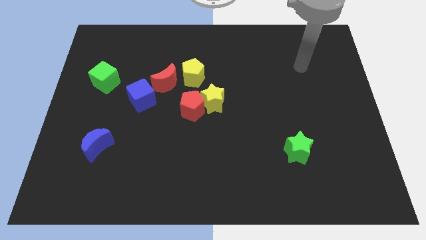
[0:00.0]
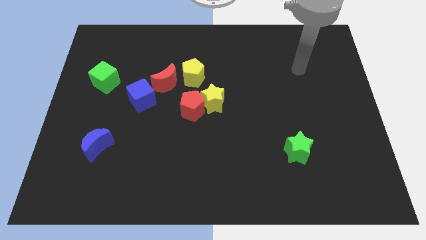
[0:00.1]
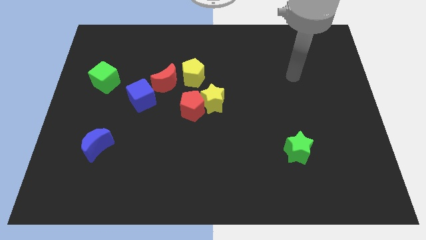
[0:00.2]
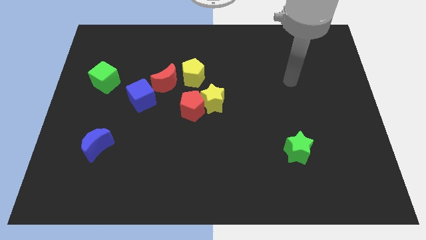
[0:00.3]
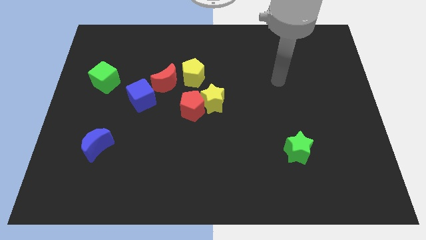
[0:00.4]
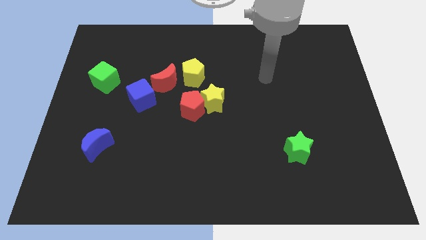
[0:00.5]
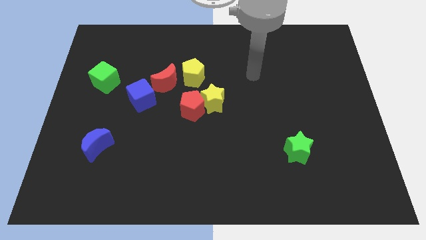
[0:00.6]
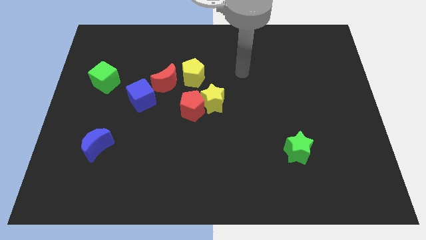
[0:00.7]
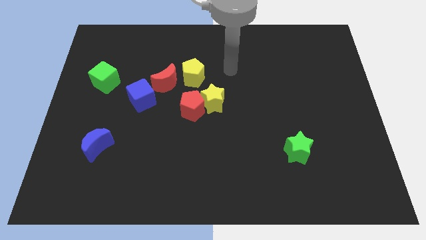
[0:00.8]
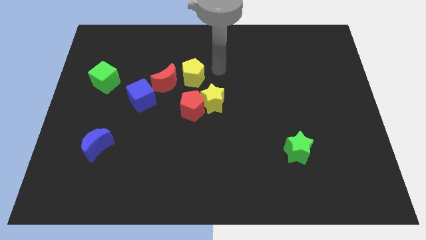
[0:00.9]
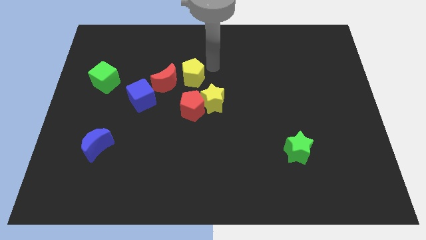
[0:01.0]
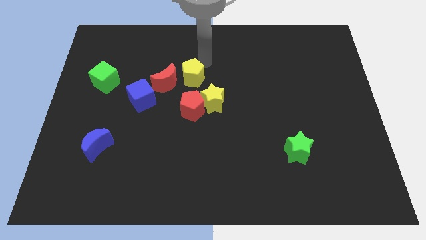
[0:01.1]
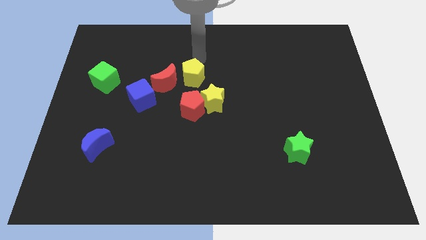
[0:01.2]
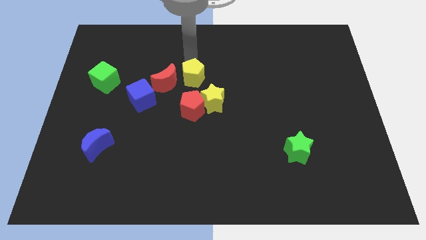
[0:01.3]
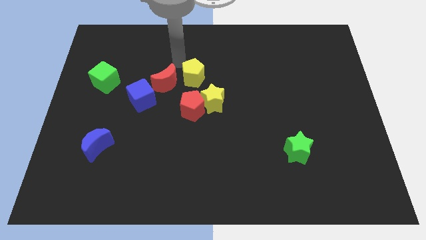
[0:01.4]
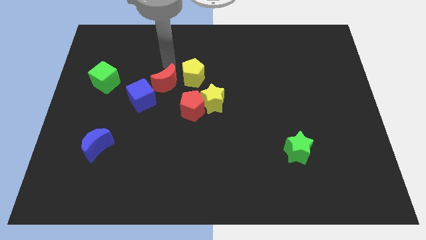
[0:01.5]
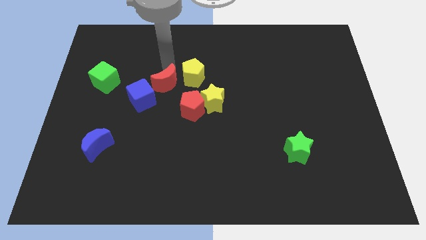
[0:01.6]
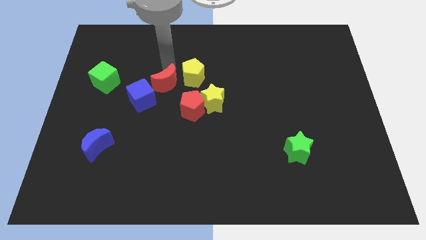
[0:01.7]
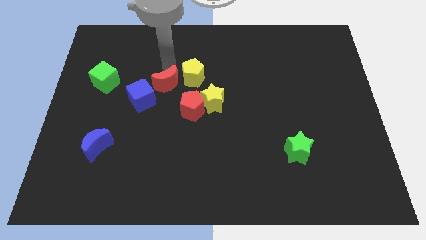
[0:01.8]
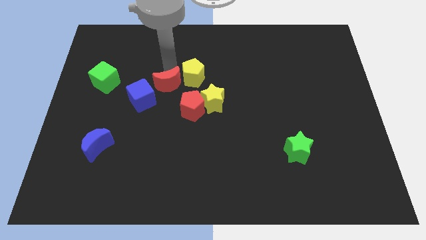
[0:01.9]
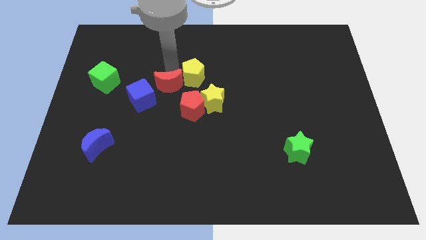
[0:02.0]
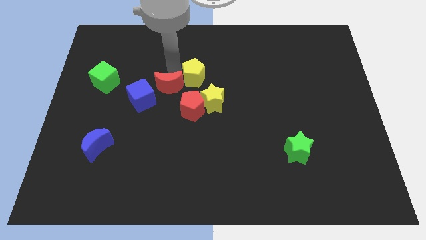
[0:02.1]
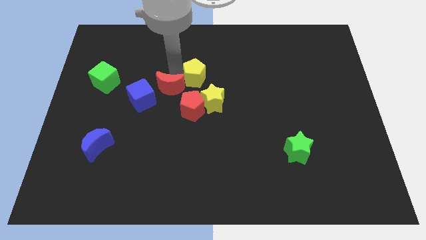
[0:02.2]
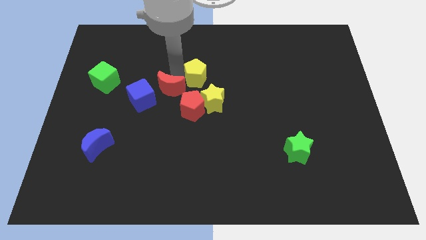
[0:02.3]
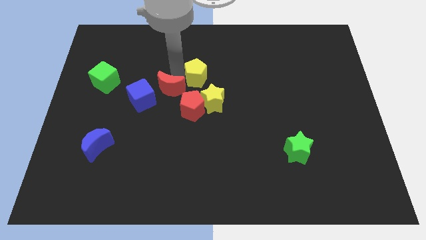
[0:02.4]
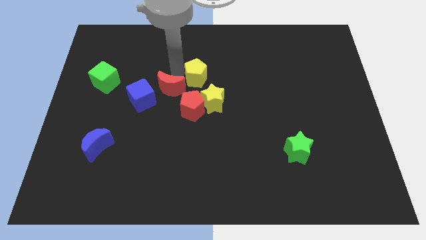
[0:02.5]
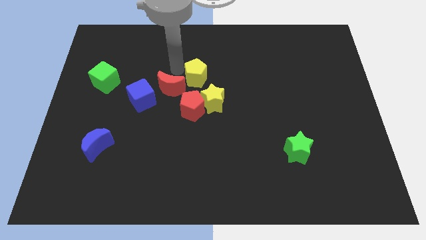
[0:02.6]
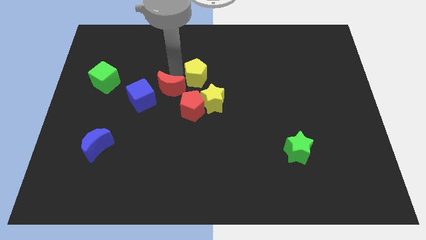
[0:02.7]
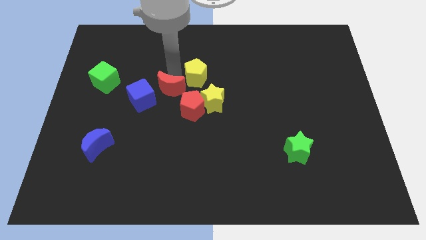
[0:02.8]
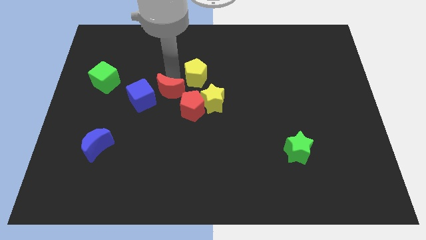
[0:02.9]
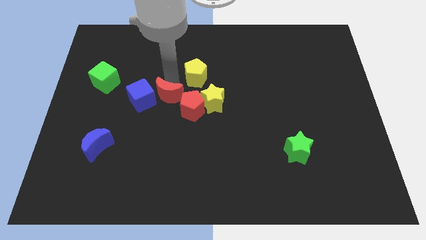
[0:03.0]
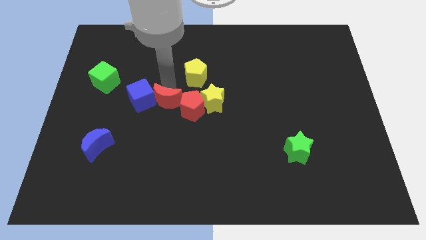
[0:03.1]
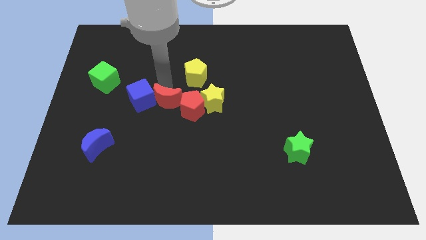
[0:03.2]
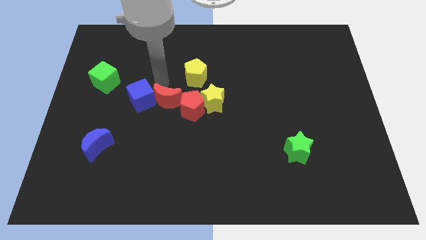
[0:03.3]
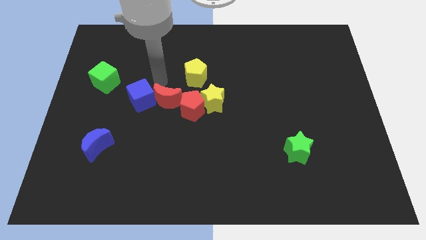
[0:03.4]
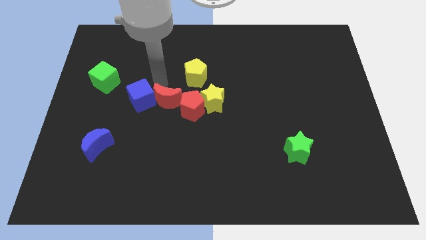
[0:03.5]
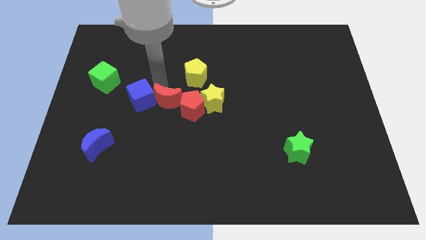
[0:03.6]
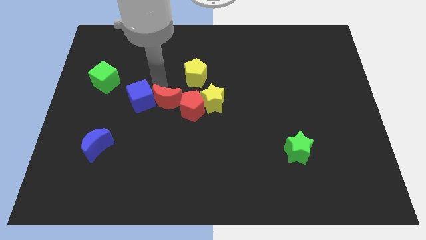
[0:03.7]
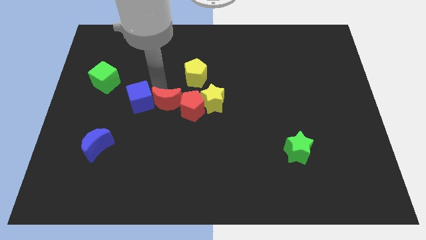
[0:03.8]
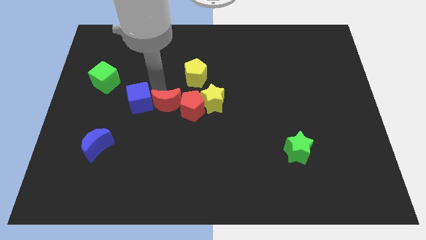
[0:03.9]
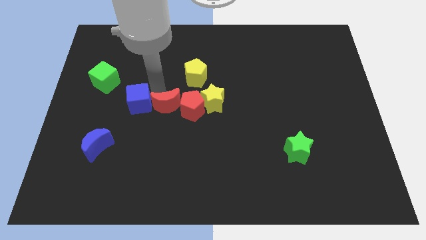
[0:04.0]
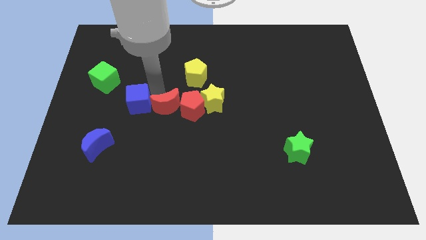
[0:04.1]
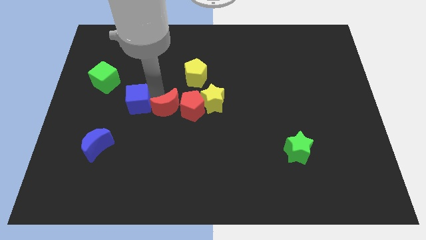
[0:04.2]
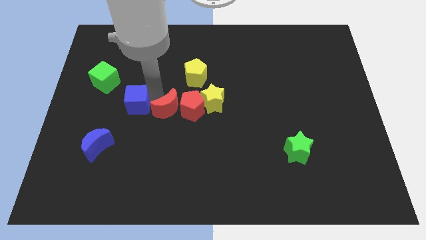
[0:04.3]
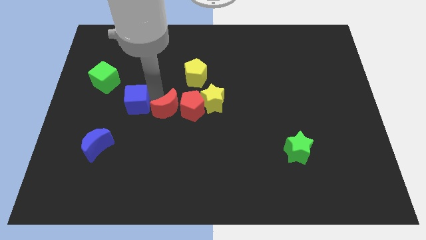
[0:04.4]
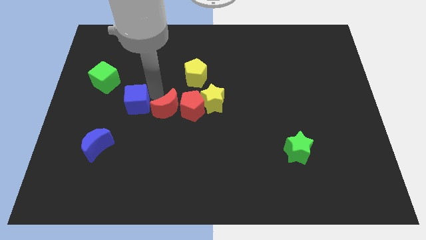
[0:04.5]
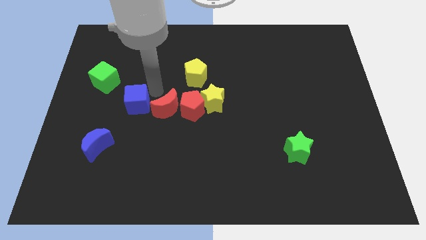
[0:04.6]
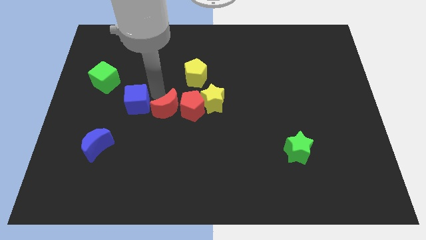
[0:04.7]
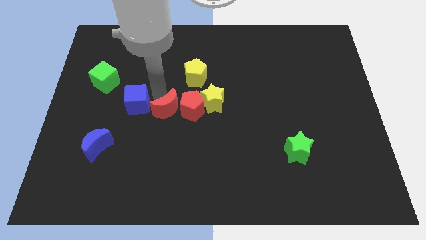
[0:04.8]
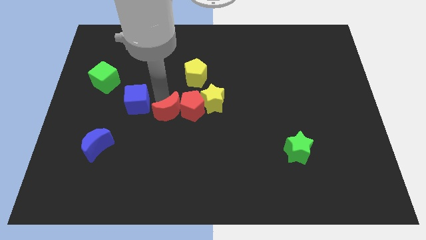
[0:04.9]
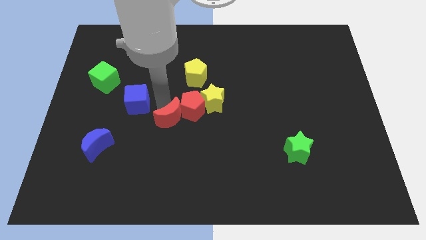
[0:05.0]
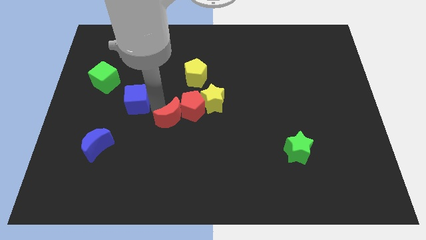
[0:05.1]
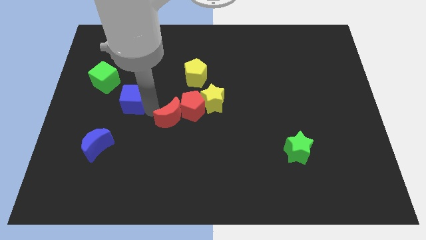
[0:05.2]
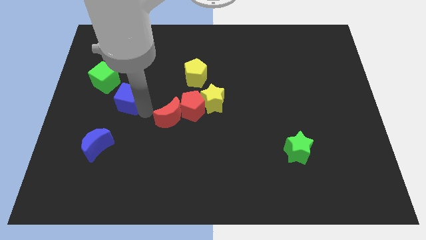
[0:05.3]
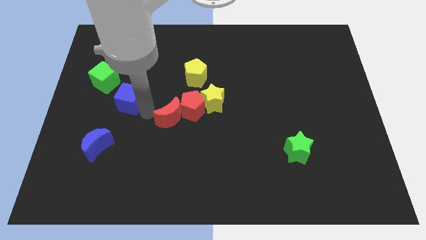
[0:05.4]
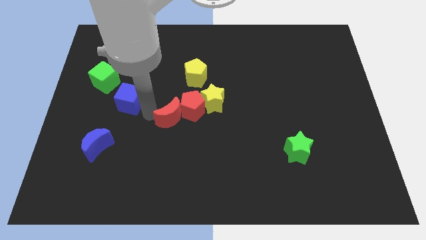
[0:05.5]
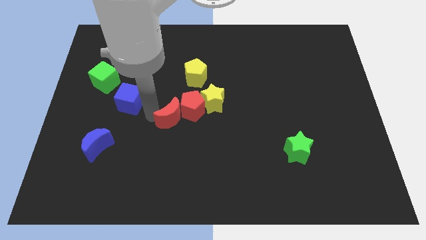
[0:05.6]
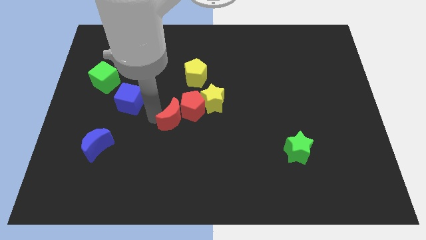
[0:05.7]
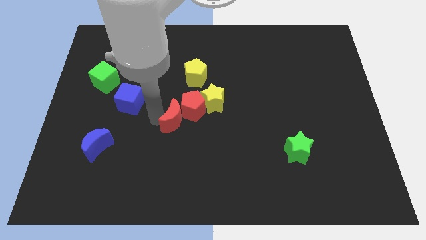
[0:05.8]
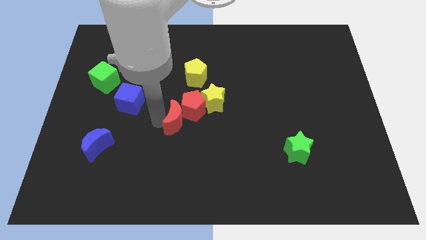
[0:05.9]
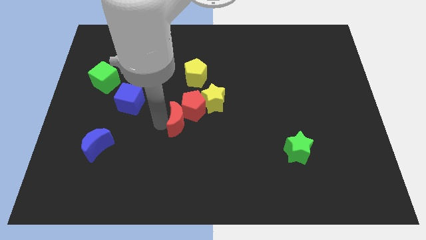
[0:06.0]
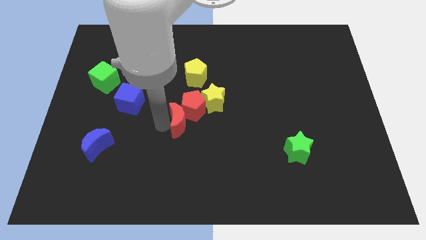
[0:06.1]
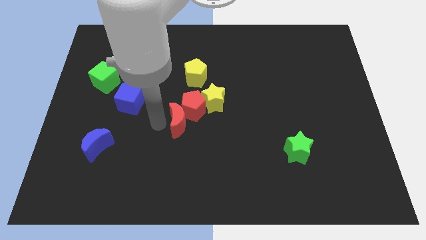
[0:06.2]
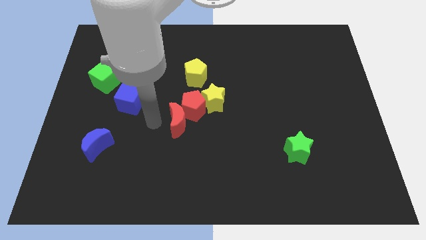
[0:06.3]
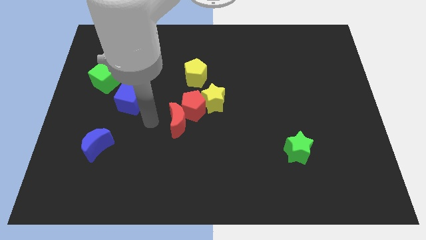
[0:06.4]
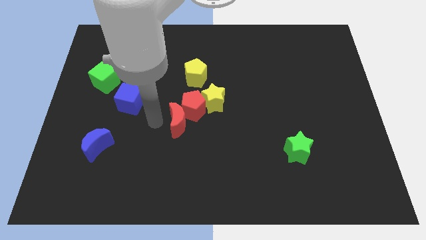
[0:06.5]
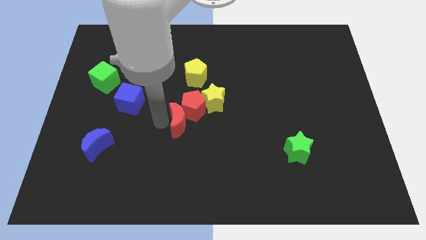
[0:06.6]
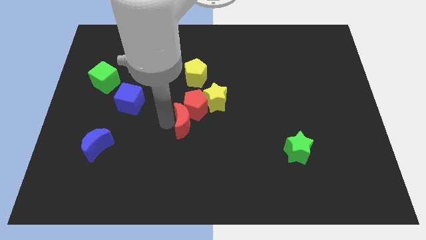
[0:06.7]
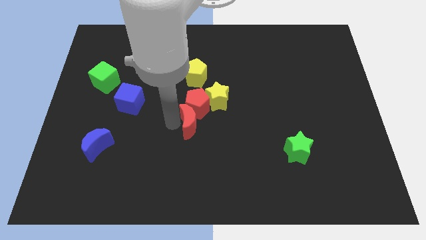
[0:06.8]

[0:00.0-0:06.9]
move the red moon to the bottom right of the red pentagon

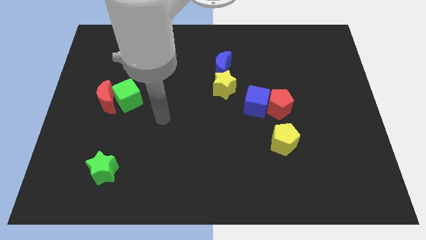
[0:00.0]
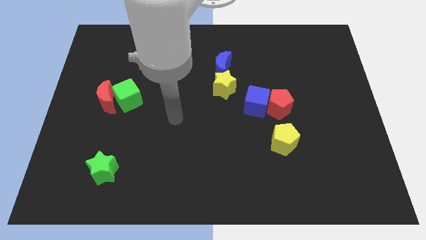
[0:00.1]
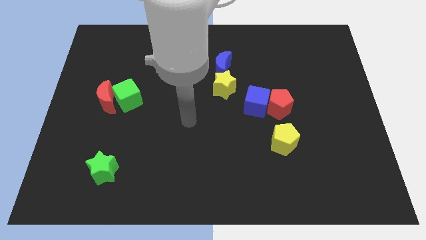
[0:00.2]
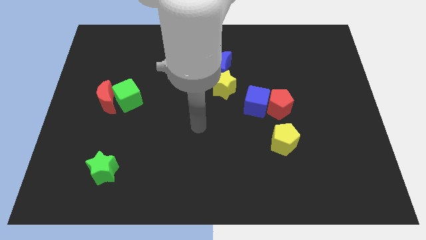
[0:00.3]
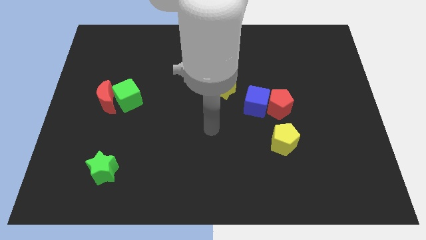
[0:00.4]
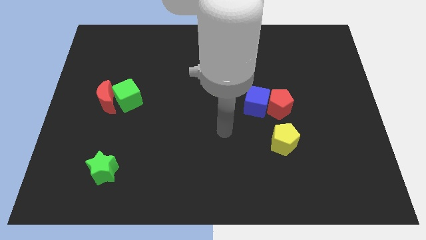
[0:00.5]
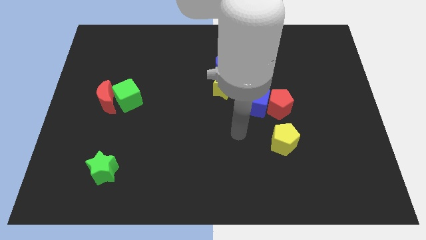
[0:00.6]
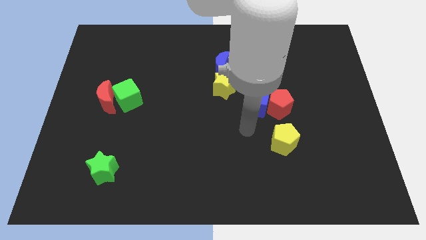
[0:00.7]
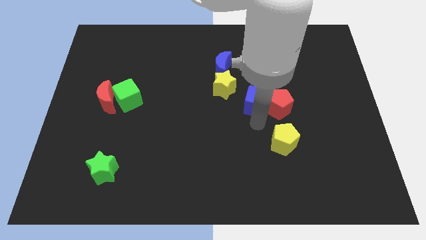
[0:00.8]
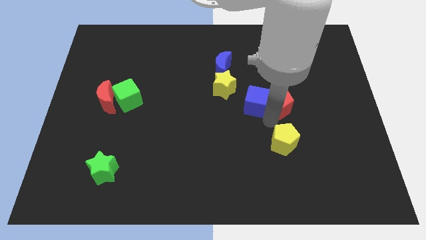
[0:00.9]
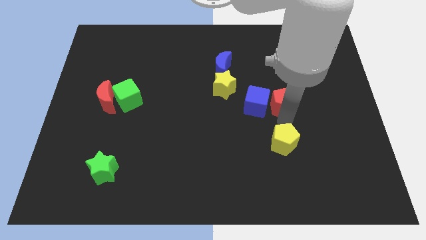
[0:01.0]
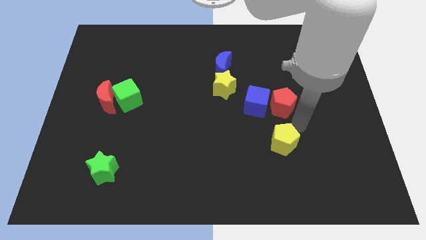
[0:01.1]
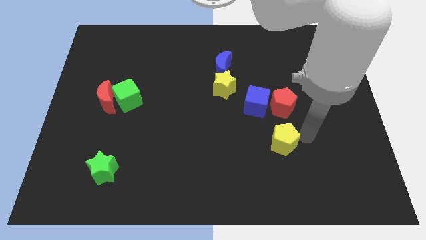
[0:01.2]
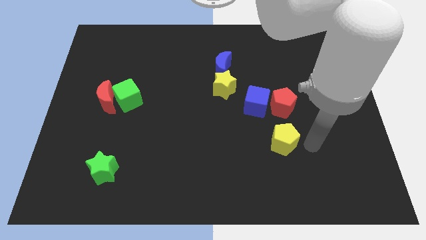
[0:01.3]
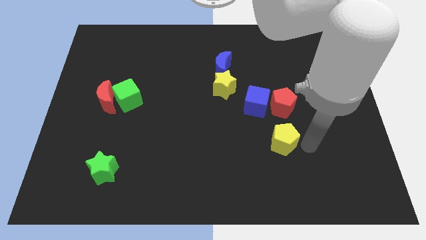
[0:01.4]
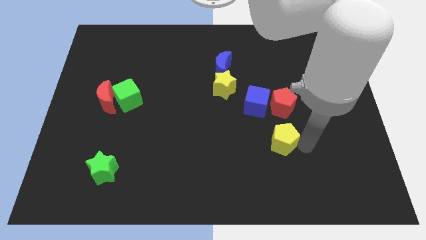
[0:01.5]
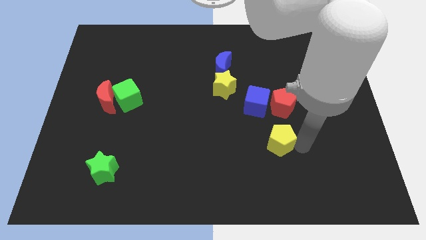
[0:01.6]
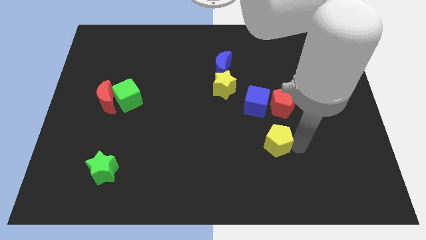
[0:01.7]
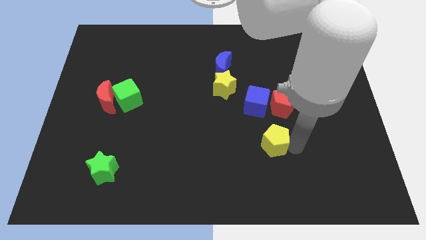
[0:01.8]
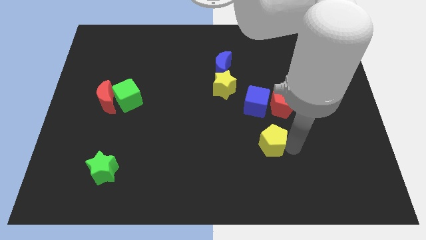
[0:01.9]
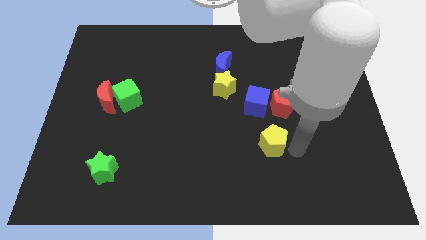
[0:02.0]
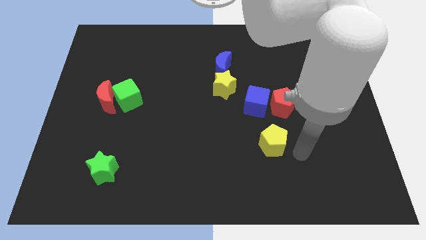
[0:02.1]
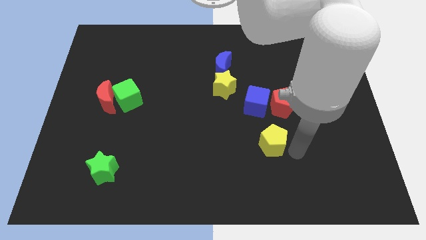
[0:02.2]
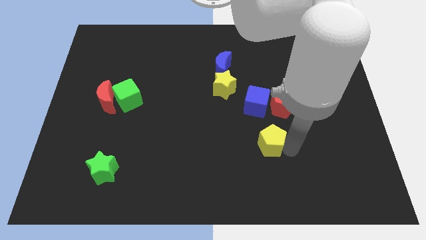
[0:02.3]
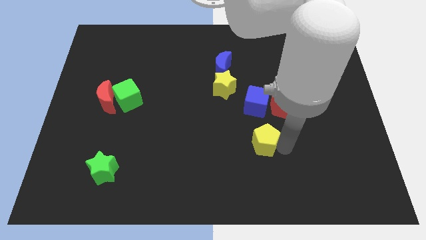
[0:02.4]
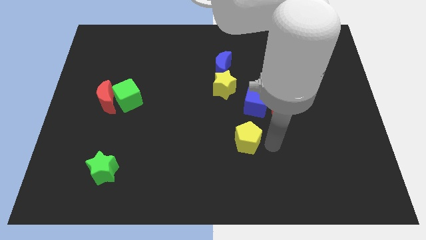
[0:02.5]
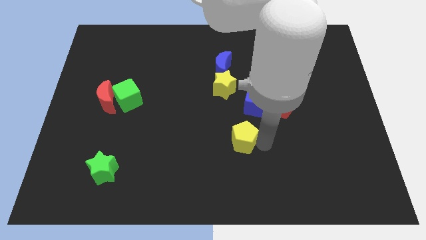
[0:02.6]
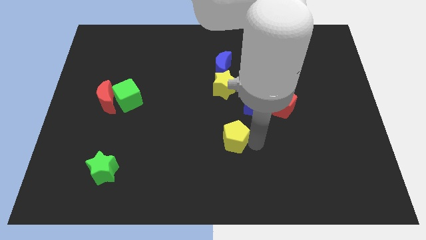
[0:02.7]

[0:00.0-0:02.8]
put the yellow pentagon to the bottom side of the yellow star
